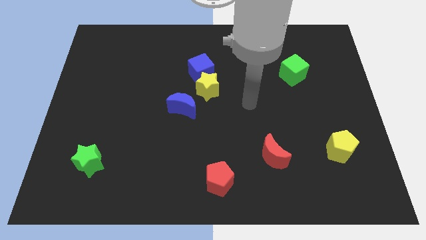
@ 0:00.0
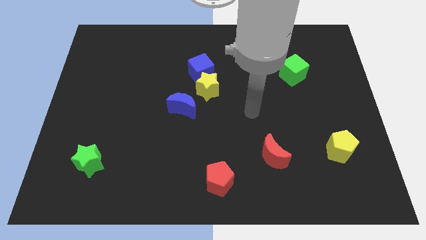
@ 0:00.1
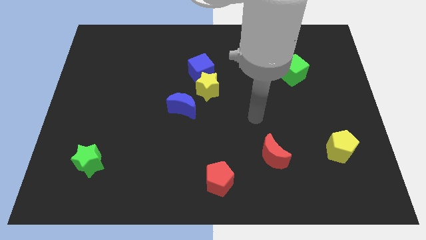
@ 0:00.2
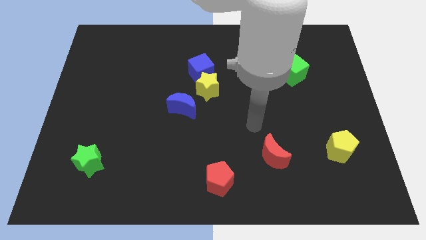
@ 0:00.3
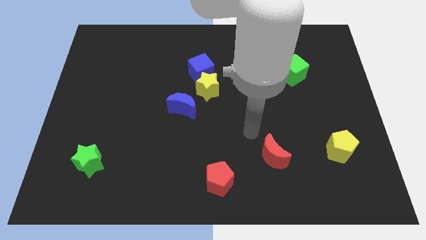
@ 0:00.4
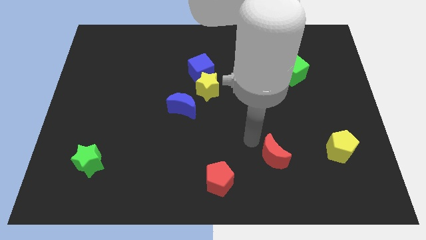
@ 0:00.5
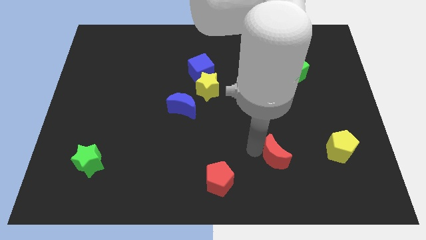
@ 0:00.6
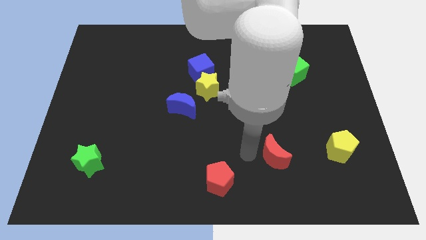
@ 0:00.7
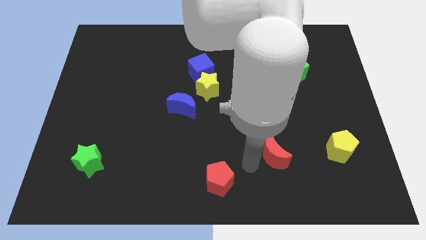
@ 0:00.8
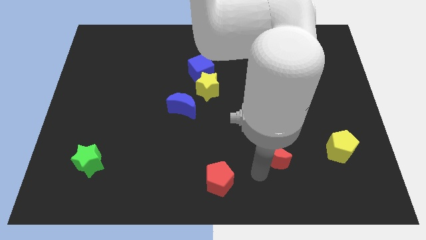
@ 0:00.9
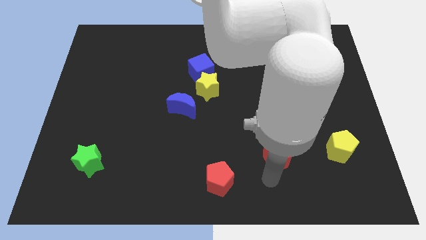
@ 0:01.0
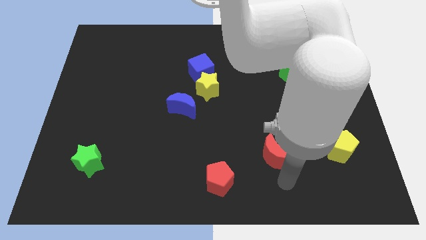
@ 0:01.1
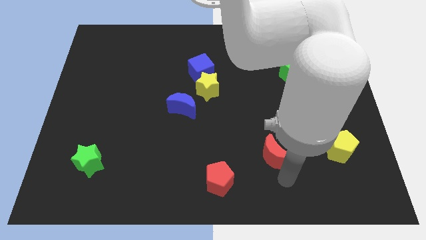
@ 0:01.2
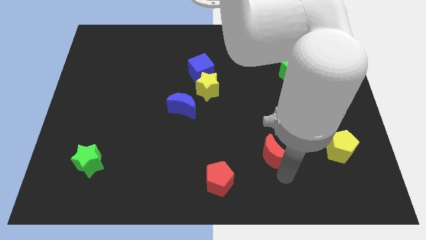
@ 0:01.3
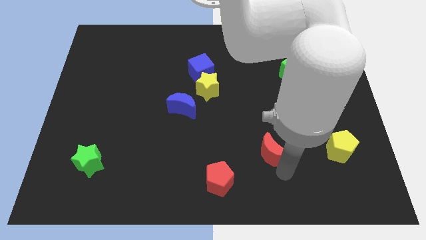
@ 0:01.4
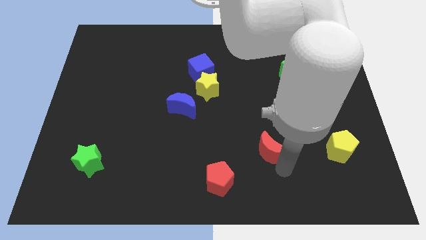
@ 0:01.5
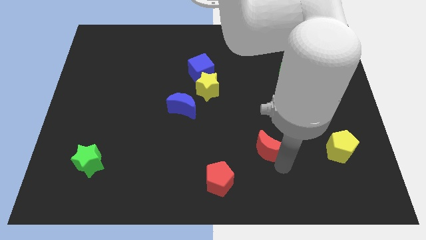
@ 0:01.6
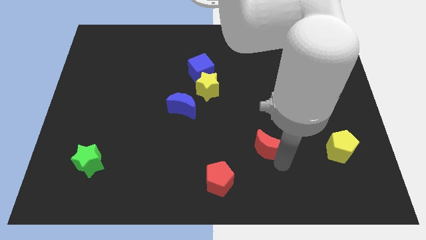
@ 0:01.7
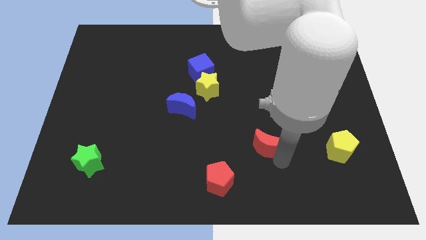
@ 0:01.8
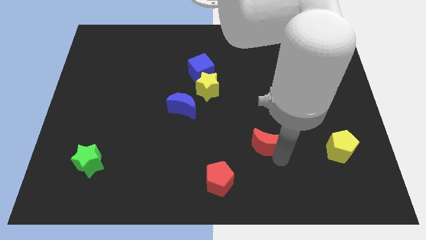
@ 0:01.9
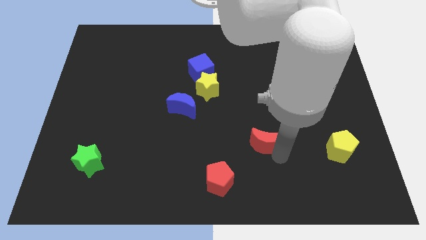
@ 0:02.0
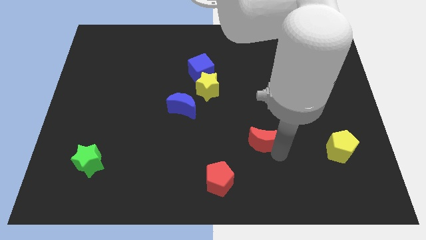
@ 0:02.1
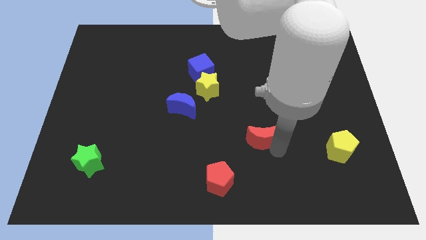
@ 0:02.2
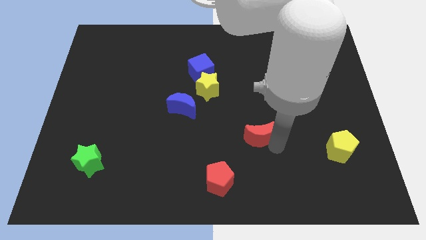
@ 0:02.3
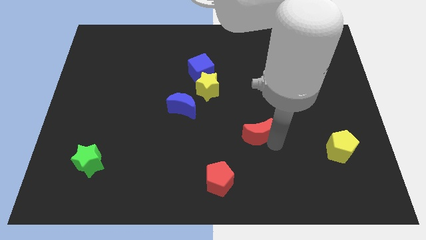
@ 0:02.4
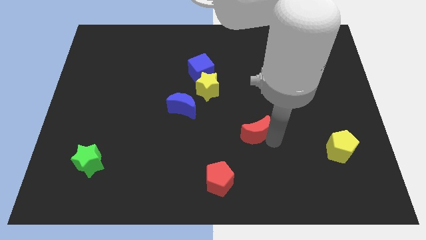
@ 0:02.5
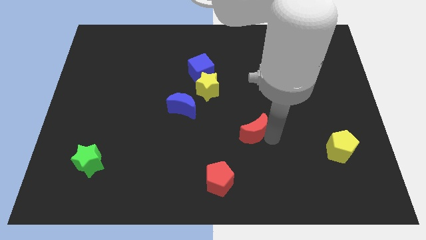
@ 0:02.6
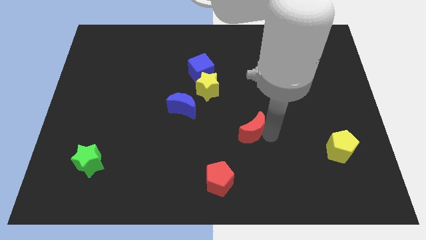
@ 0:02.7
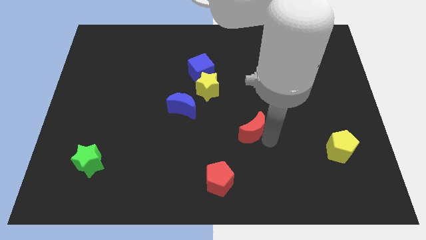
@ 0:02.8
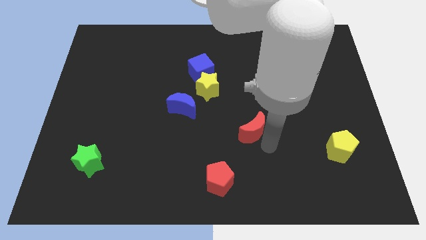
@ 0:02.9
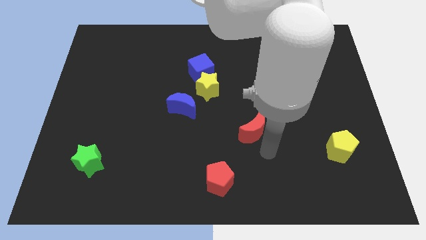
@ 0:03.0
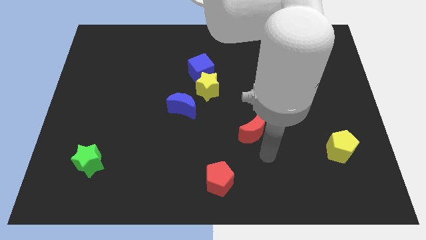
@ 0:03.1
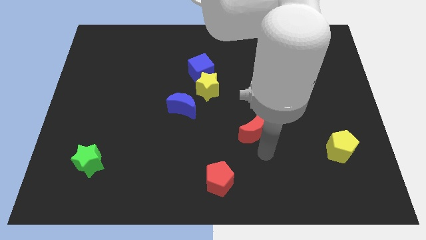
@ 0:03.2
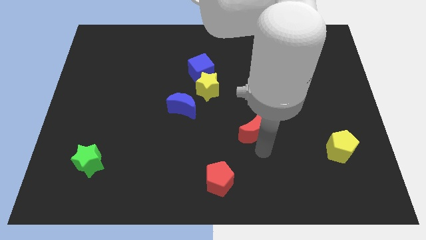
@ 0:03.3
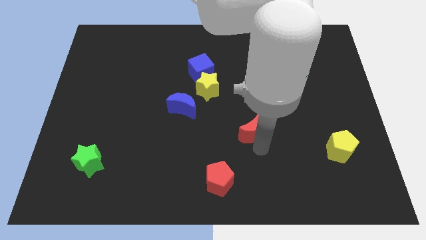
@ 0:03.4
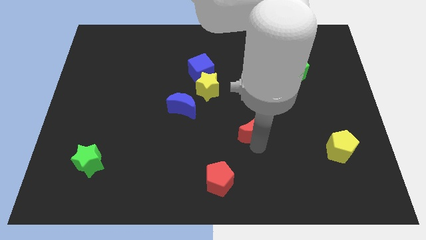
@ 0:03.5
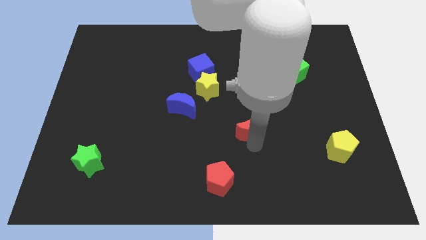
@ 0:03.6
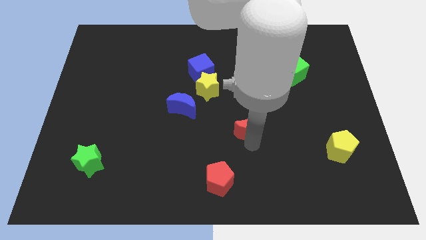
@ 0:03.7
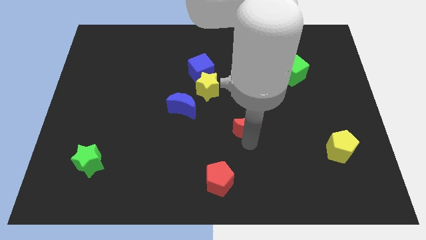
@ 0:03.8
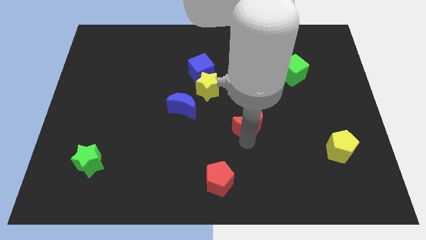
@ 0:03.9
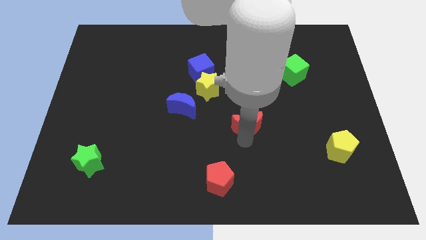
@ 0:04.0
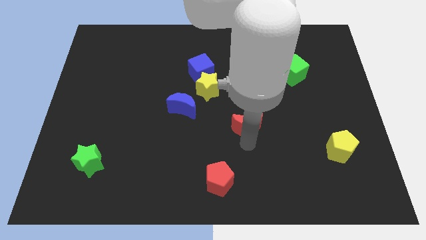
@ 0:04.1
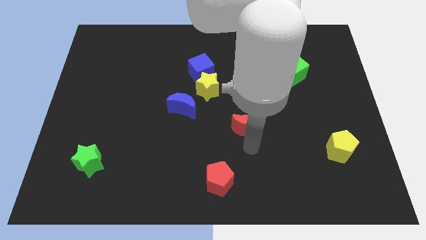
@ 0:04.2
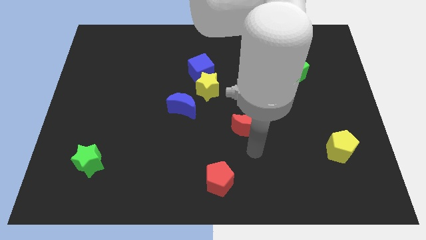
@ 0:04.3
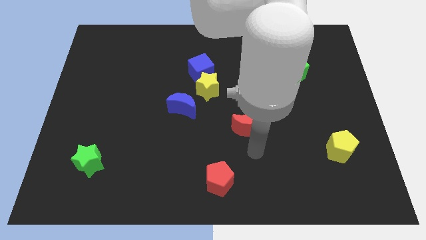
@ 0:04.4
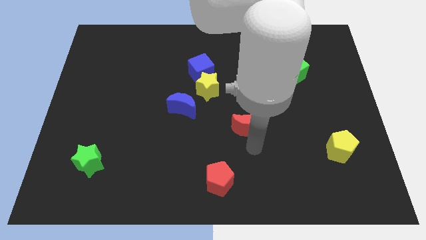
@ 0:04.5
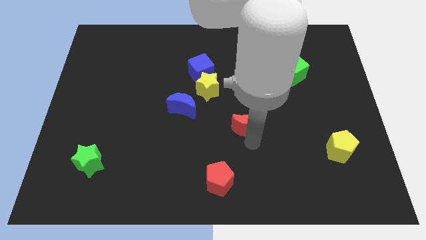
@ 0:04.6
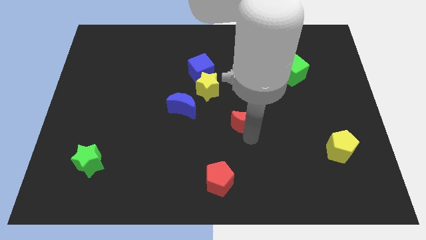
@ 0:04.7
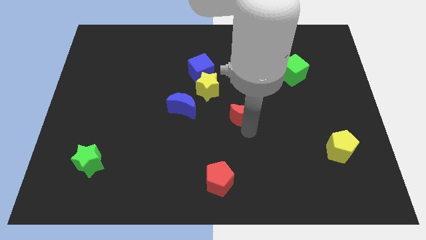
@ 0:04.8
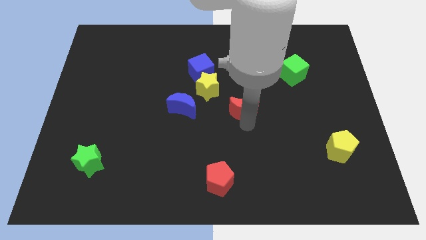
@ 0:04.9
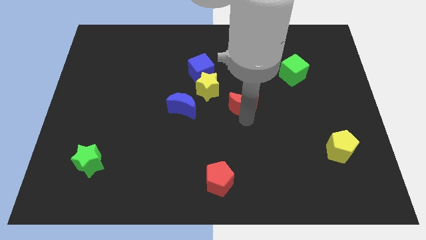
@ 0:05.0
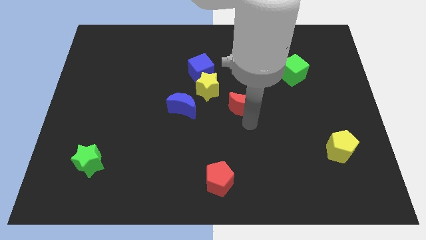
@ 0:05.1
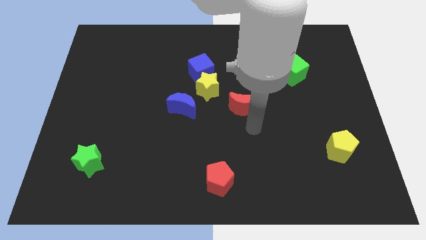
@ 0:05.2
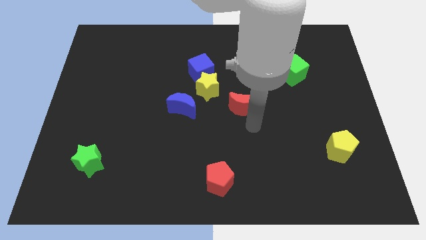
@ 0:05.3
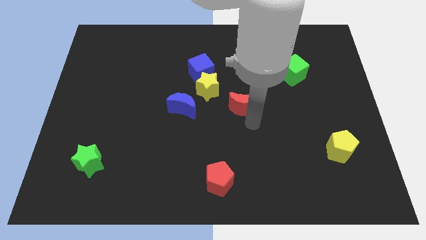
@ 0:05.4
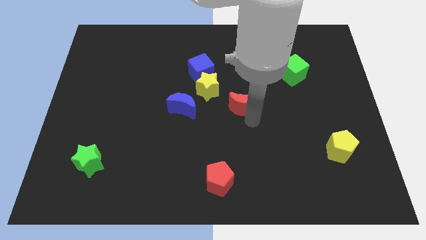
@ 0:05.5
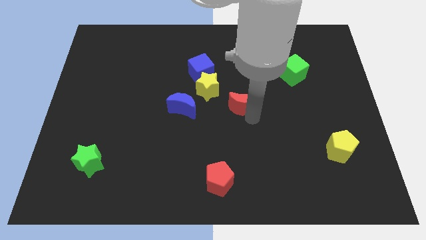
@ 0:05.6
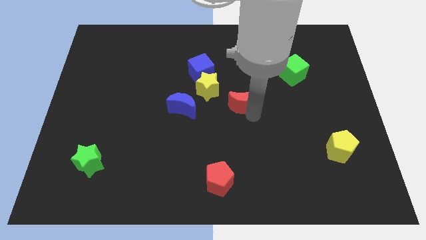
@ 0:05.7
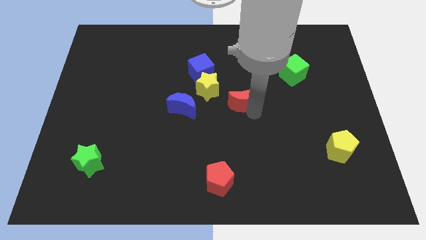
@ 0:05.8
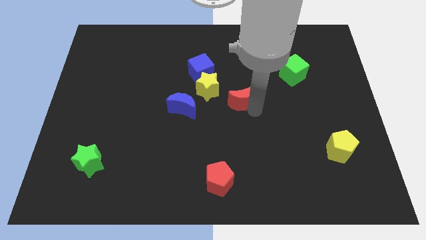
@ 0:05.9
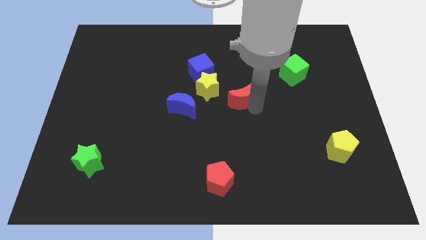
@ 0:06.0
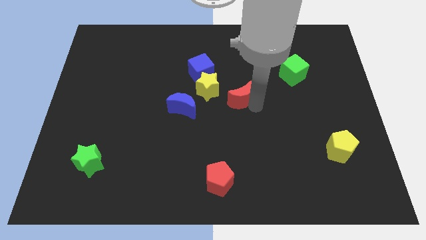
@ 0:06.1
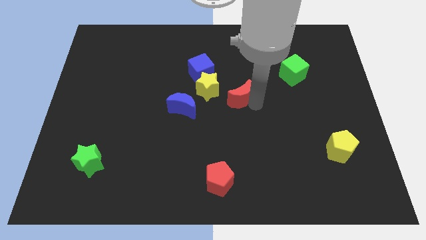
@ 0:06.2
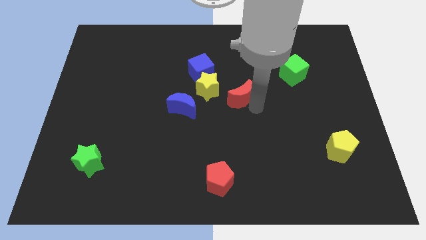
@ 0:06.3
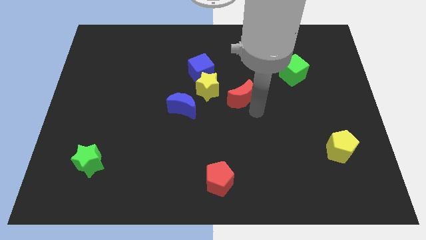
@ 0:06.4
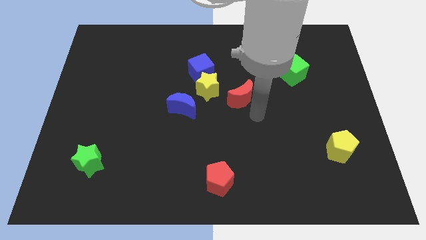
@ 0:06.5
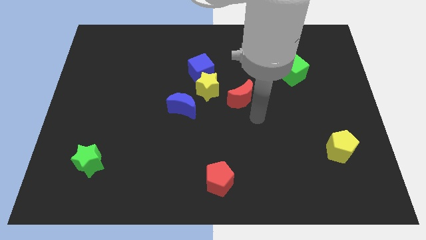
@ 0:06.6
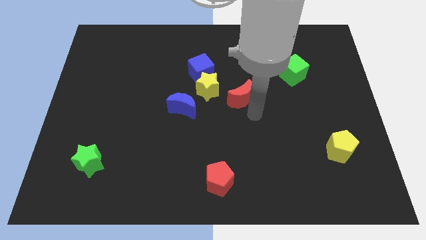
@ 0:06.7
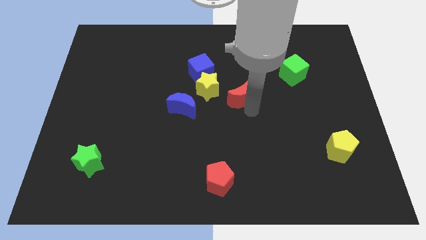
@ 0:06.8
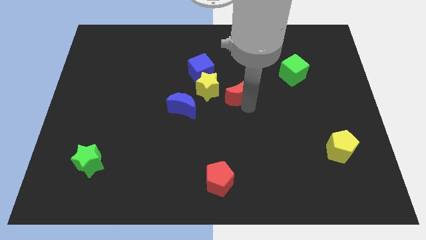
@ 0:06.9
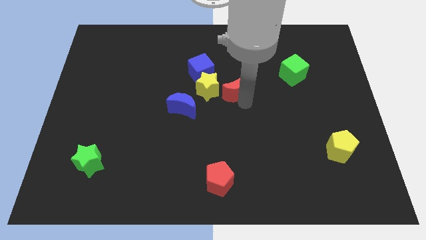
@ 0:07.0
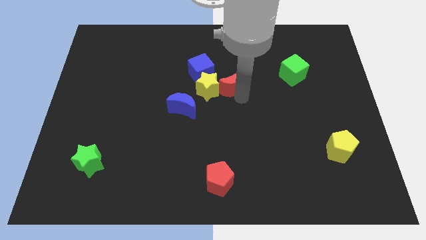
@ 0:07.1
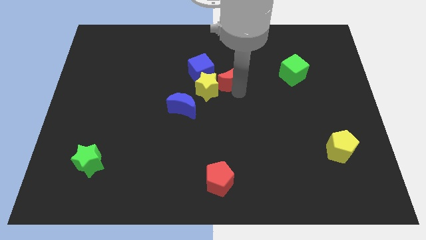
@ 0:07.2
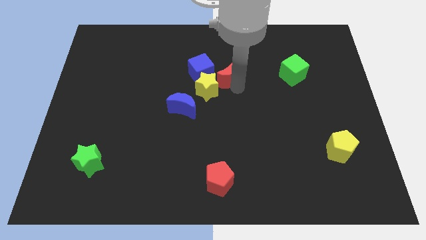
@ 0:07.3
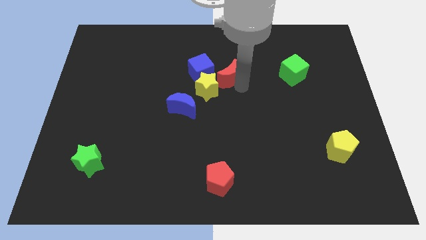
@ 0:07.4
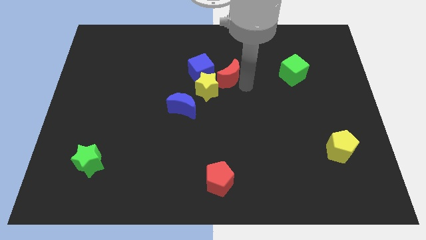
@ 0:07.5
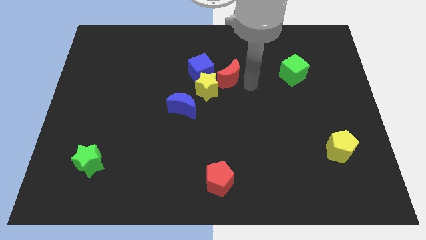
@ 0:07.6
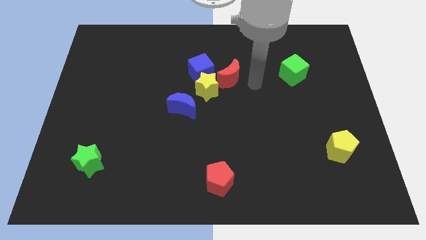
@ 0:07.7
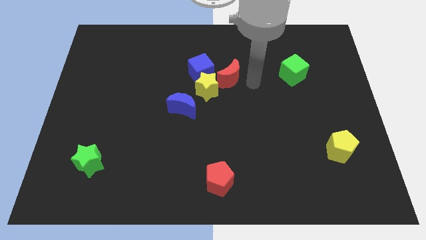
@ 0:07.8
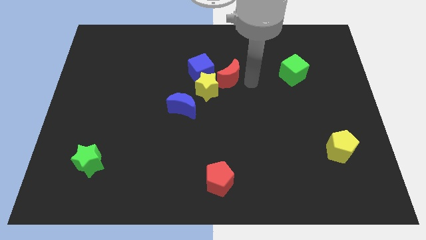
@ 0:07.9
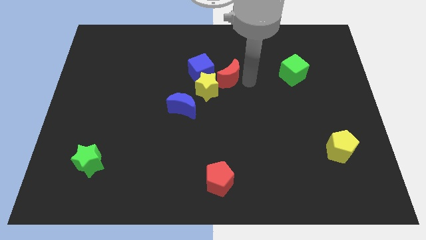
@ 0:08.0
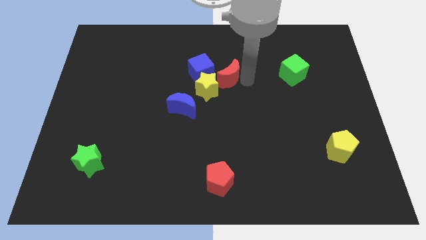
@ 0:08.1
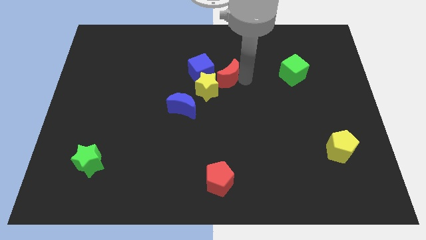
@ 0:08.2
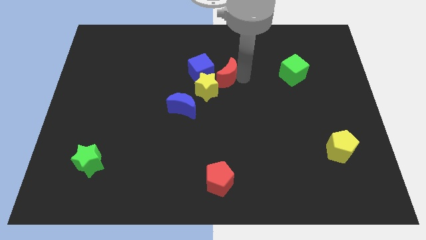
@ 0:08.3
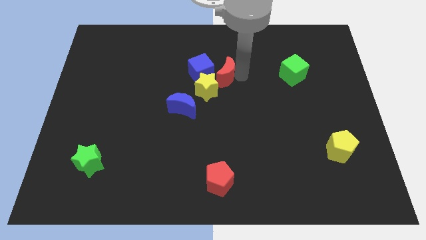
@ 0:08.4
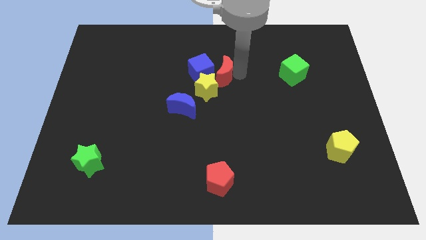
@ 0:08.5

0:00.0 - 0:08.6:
slide the red moon towards the blue cube
